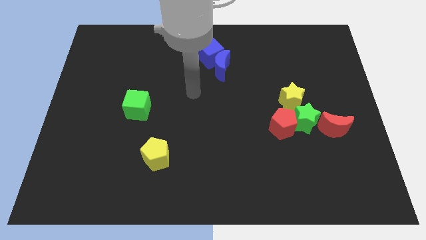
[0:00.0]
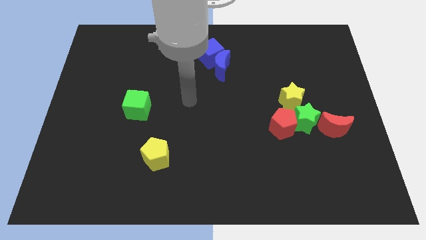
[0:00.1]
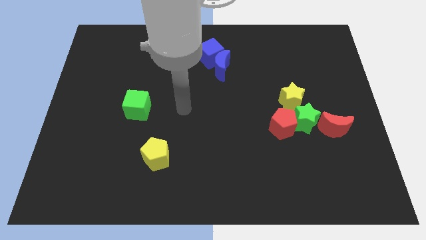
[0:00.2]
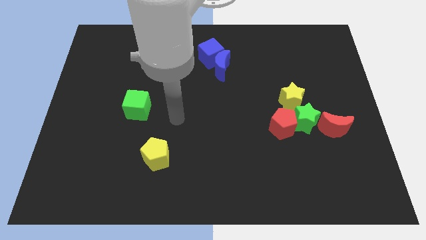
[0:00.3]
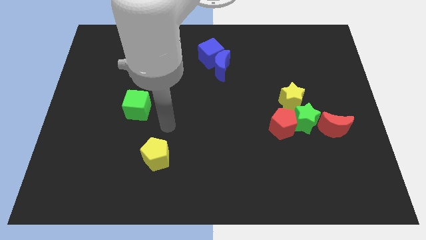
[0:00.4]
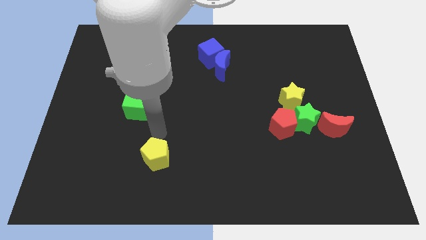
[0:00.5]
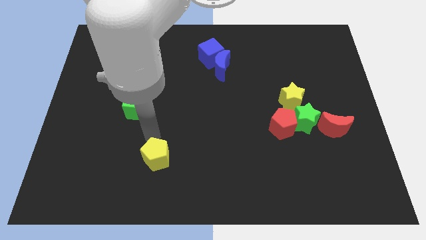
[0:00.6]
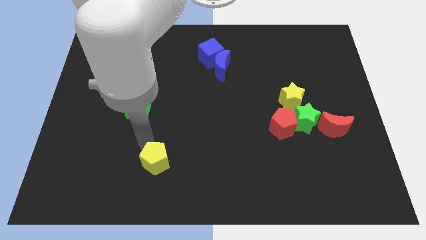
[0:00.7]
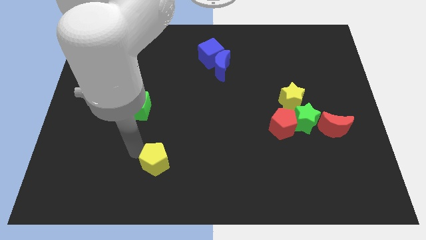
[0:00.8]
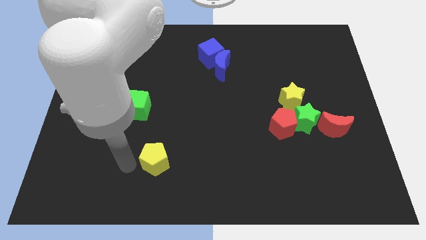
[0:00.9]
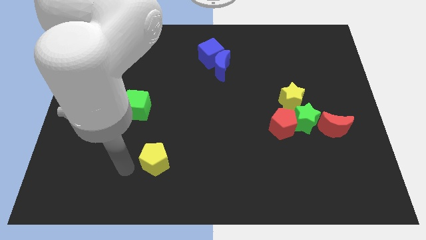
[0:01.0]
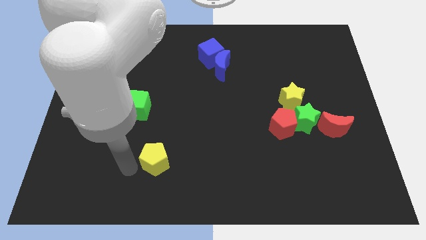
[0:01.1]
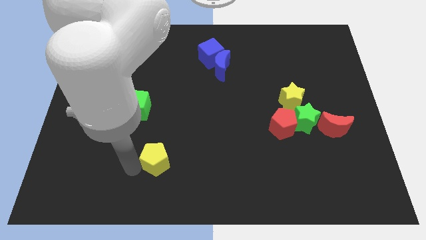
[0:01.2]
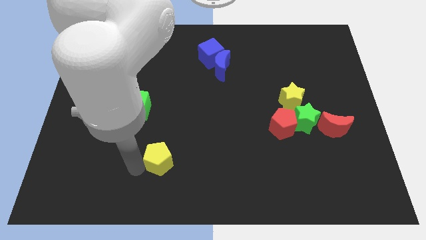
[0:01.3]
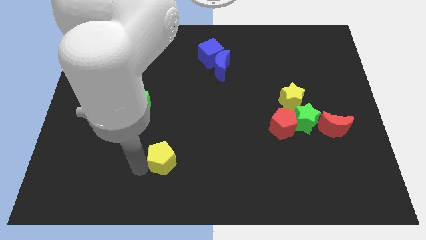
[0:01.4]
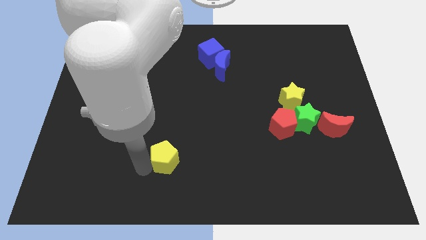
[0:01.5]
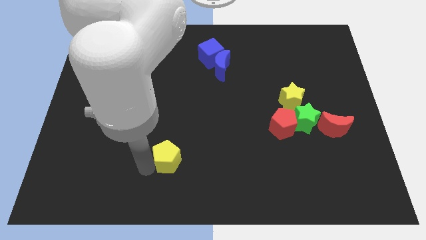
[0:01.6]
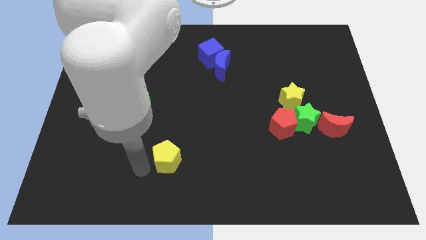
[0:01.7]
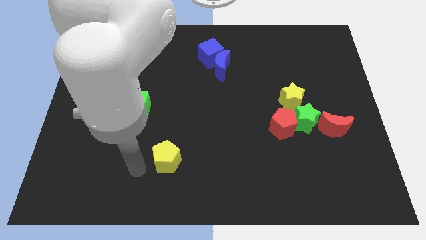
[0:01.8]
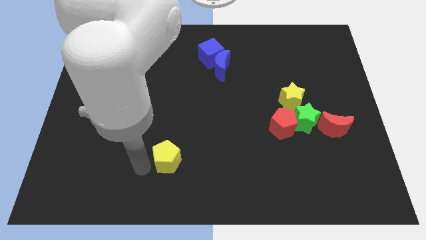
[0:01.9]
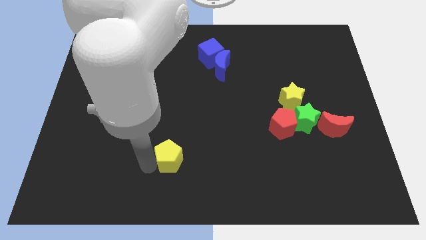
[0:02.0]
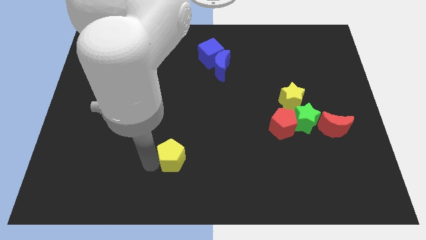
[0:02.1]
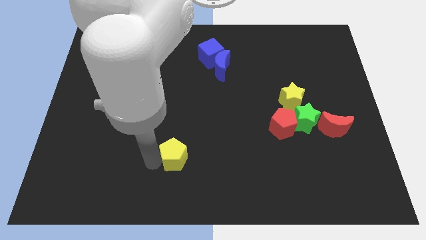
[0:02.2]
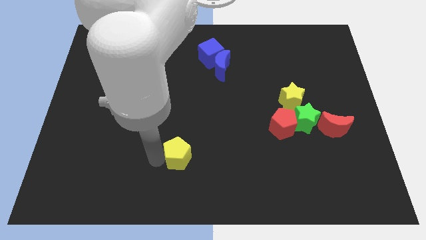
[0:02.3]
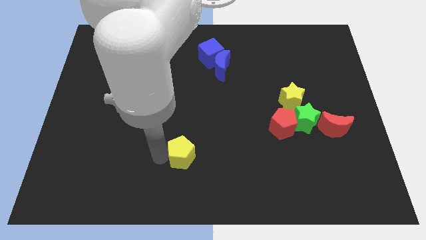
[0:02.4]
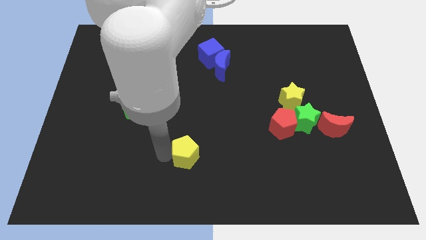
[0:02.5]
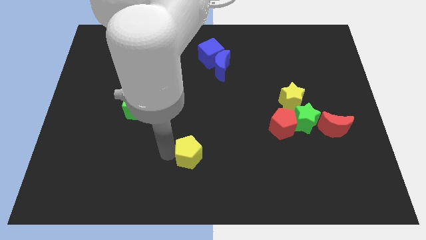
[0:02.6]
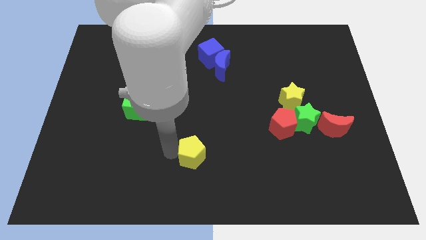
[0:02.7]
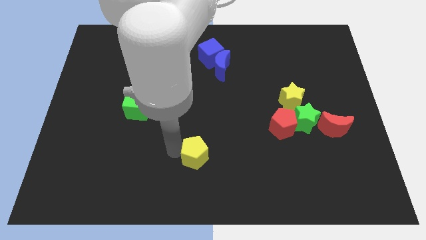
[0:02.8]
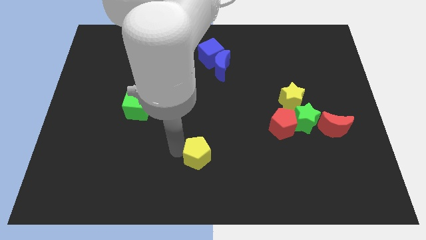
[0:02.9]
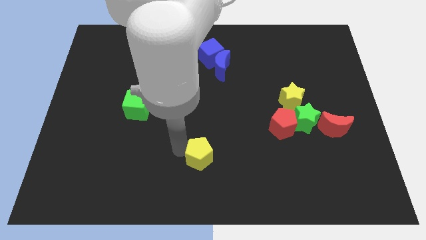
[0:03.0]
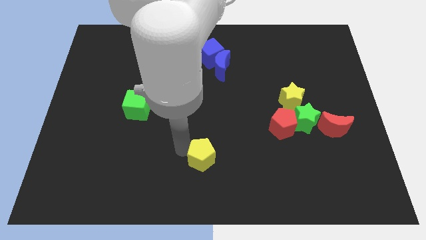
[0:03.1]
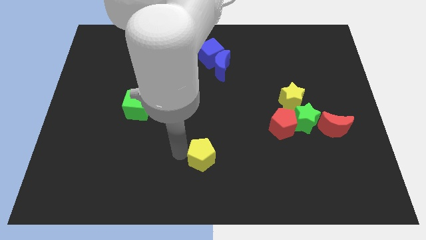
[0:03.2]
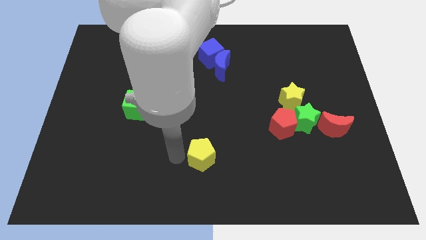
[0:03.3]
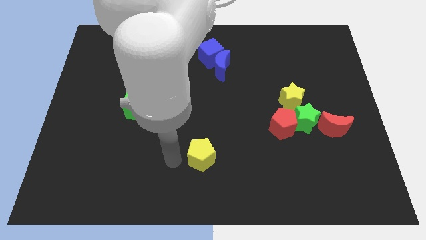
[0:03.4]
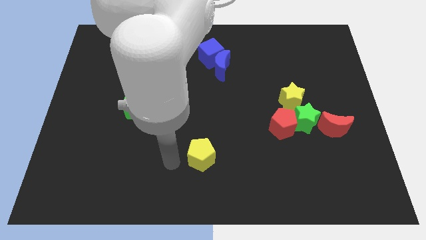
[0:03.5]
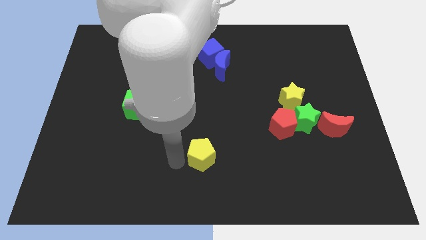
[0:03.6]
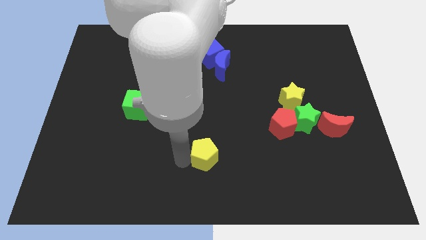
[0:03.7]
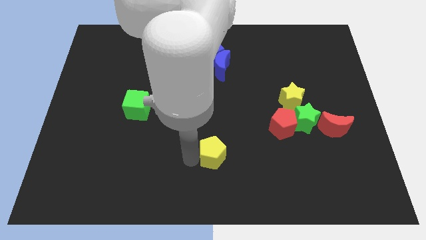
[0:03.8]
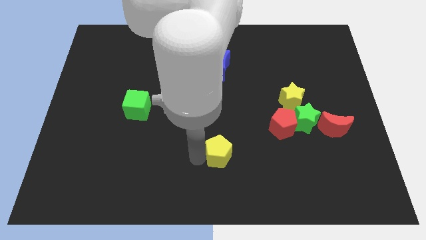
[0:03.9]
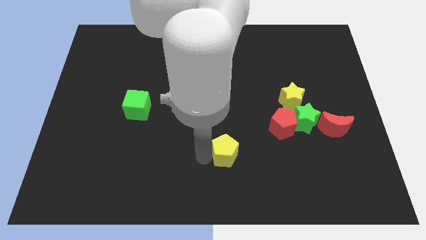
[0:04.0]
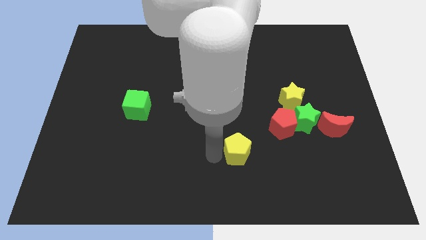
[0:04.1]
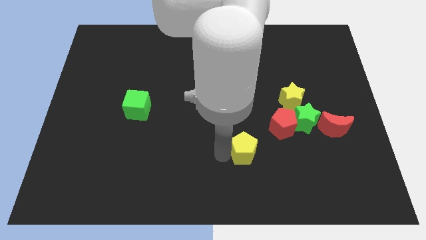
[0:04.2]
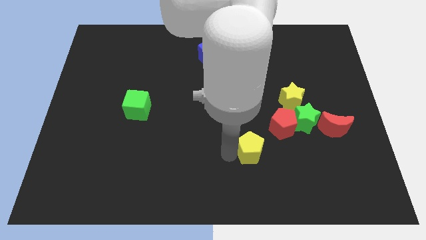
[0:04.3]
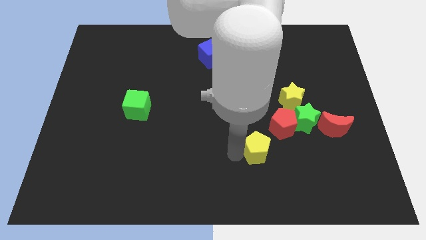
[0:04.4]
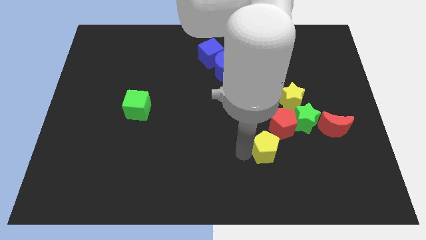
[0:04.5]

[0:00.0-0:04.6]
push the yellow pentagon to the bottom left of the green star

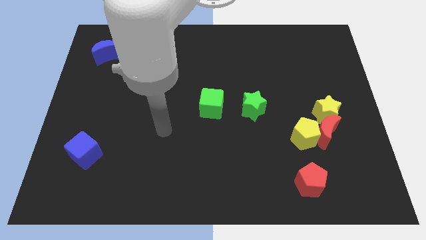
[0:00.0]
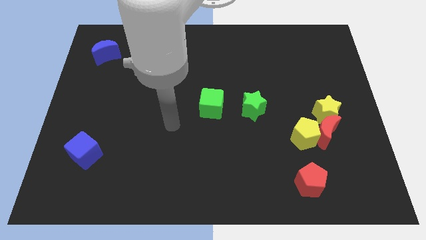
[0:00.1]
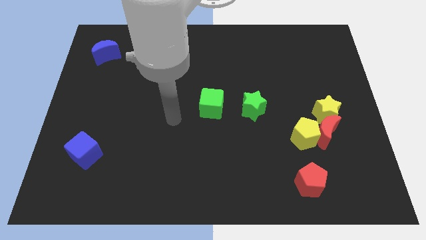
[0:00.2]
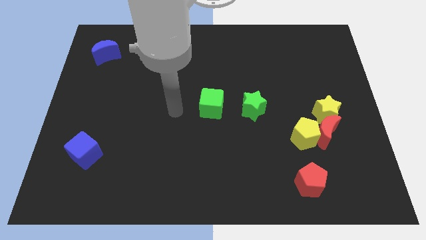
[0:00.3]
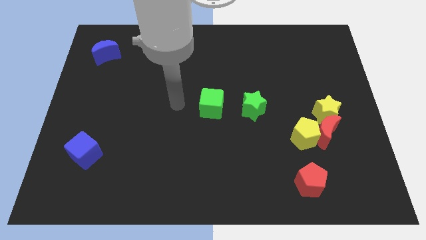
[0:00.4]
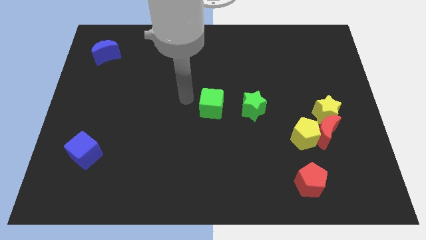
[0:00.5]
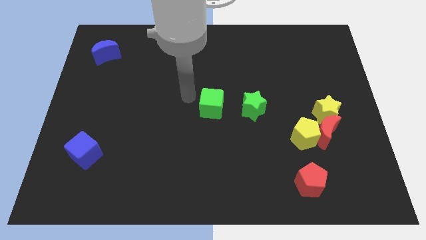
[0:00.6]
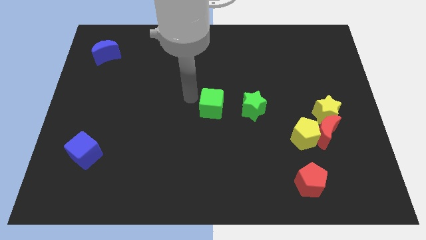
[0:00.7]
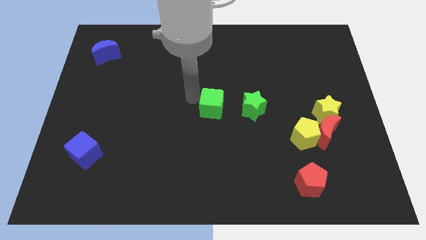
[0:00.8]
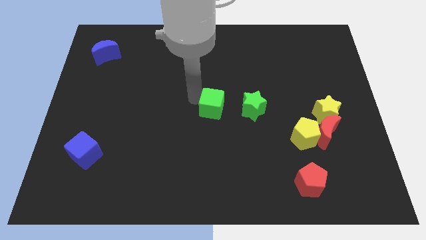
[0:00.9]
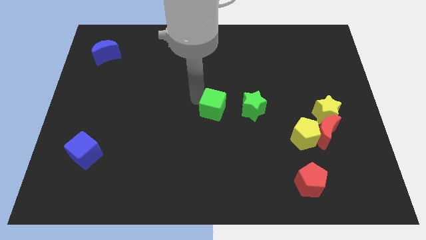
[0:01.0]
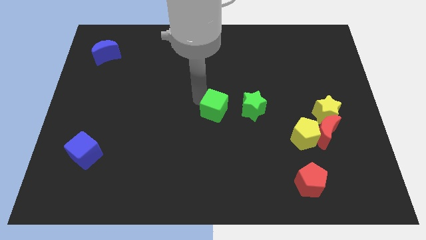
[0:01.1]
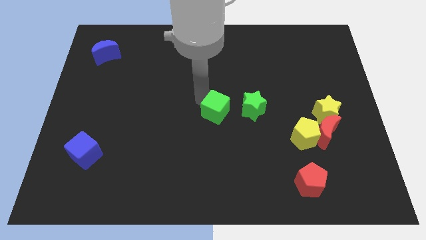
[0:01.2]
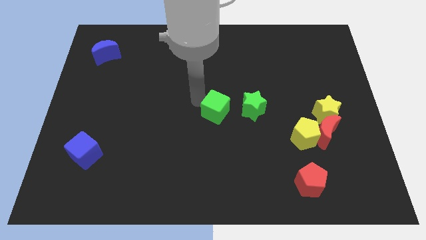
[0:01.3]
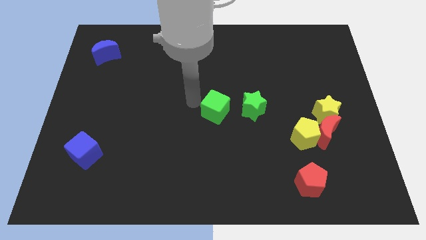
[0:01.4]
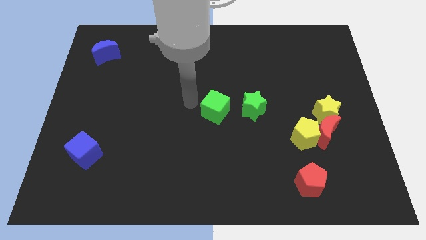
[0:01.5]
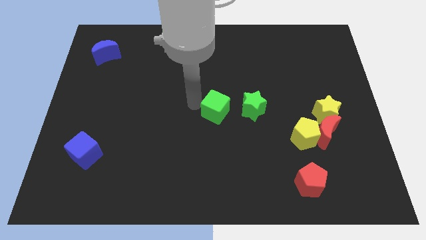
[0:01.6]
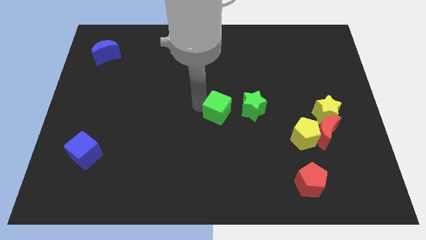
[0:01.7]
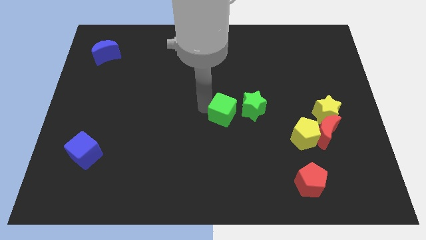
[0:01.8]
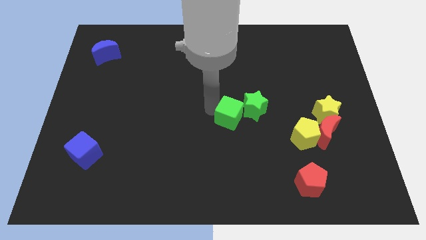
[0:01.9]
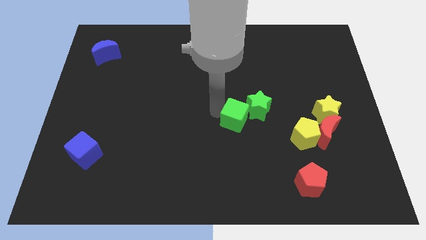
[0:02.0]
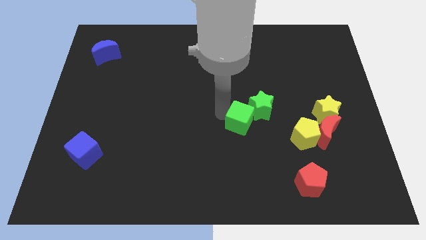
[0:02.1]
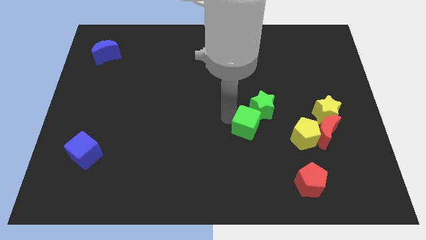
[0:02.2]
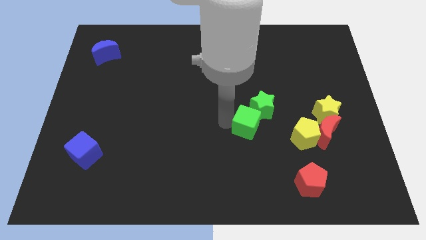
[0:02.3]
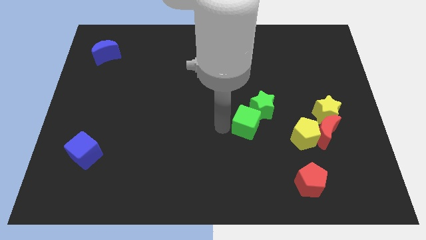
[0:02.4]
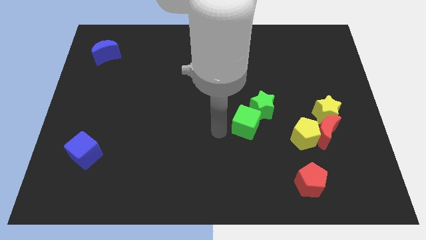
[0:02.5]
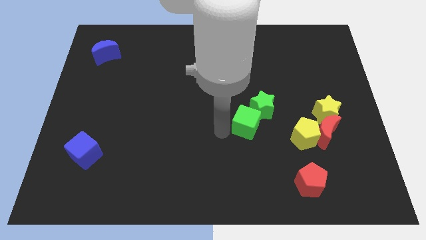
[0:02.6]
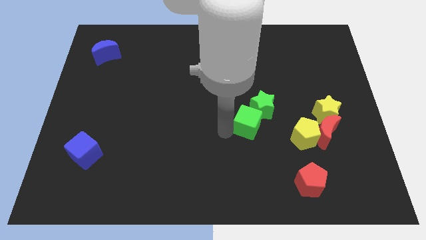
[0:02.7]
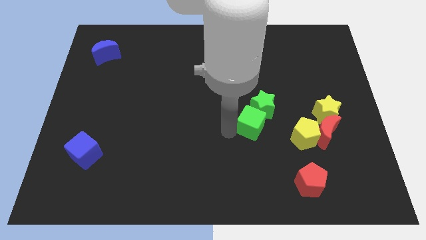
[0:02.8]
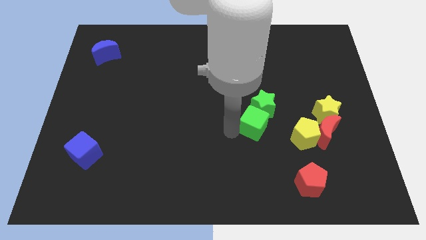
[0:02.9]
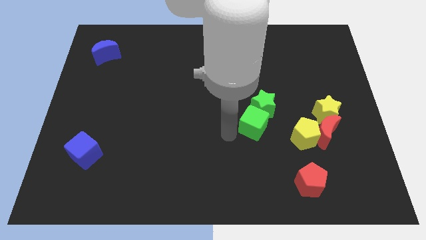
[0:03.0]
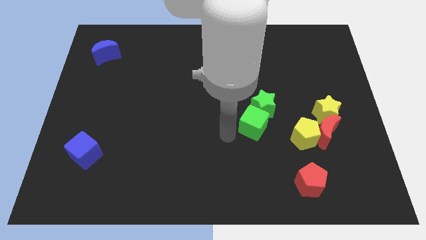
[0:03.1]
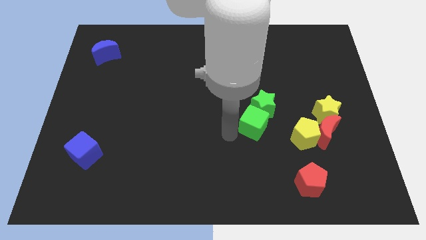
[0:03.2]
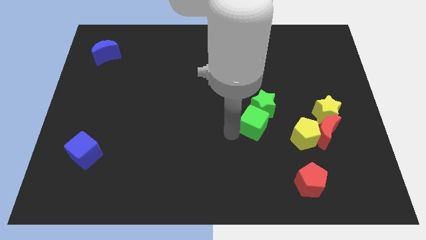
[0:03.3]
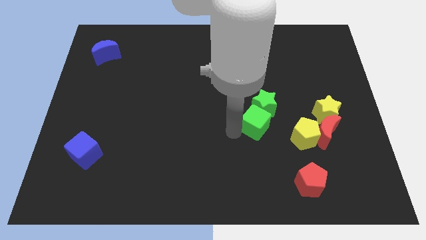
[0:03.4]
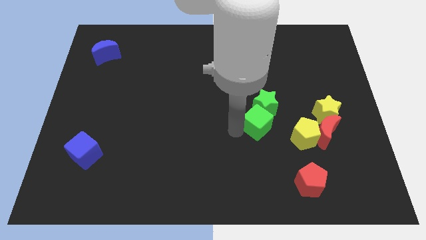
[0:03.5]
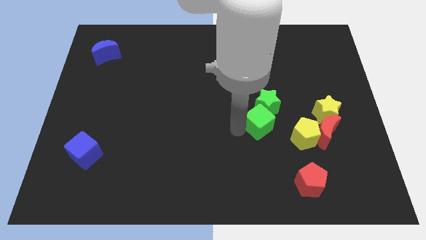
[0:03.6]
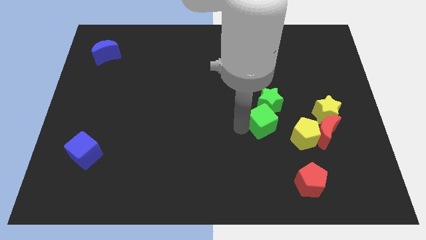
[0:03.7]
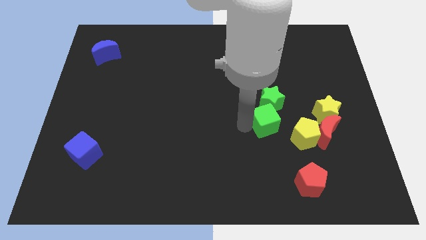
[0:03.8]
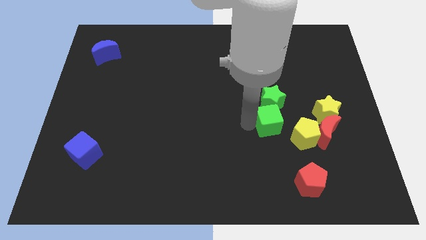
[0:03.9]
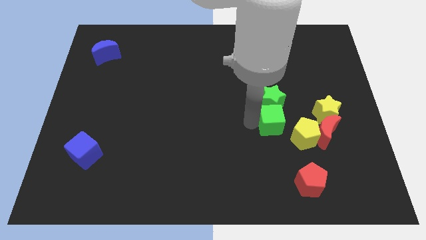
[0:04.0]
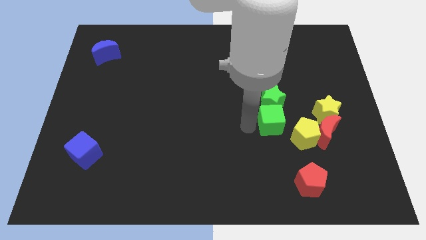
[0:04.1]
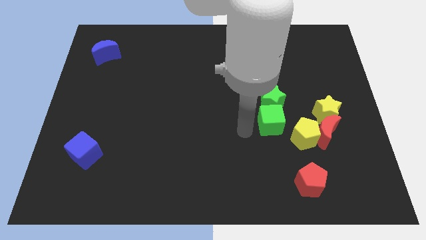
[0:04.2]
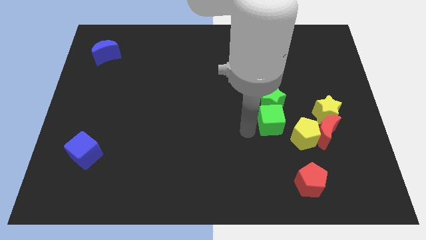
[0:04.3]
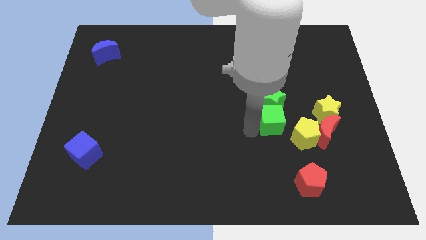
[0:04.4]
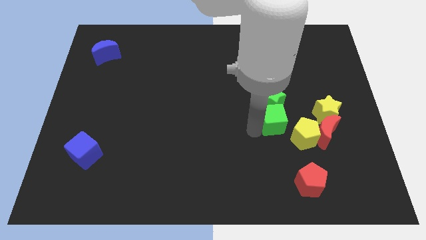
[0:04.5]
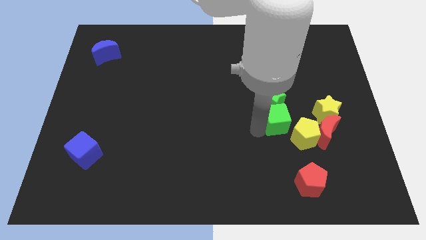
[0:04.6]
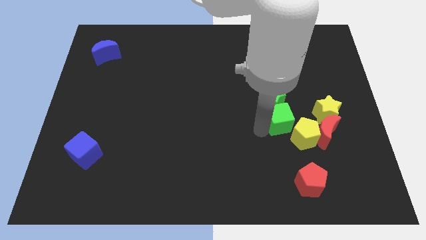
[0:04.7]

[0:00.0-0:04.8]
push the green cube diagonally up and to the left of the red moon
